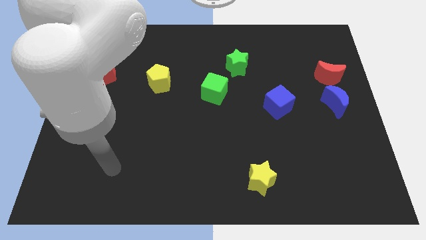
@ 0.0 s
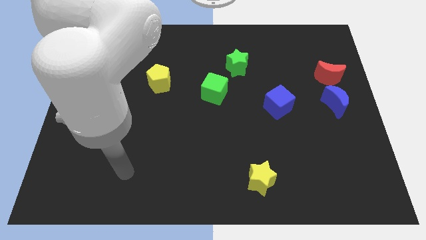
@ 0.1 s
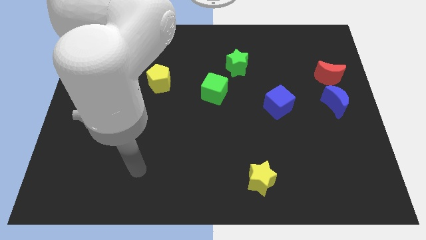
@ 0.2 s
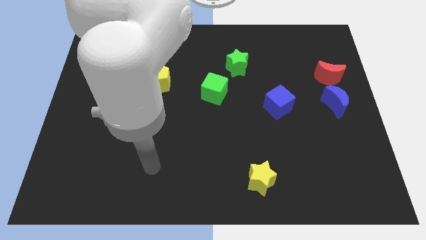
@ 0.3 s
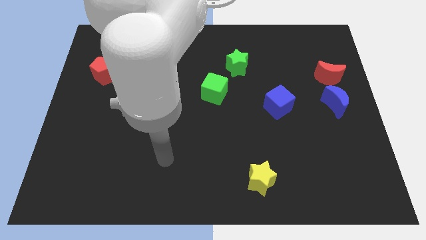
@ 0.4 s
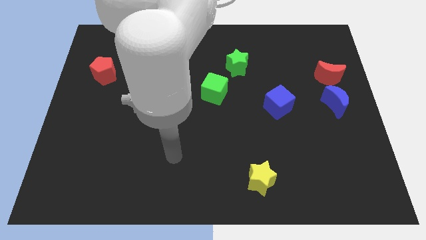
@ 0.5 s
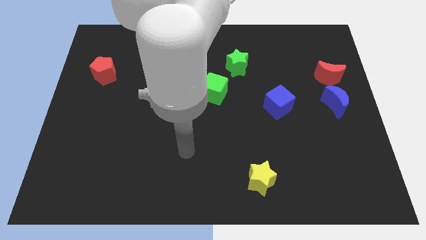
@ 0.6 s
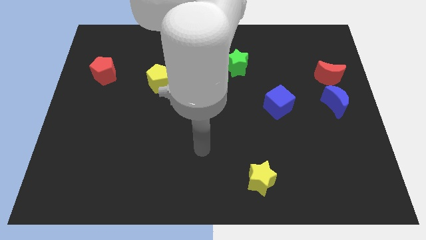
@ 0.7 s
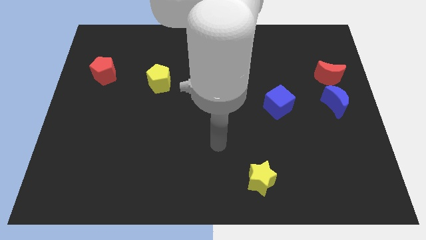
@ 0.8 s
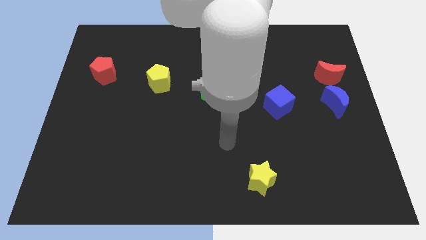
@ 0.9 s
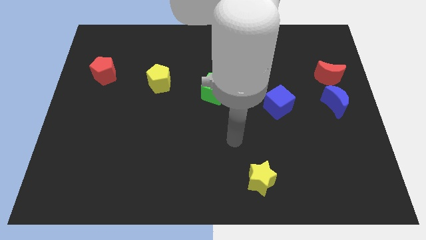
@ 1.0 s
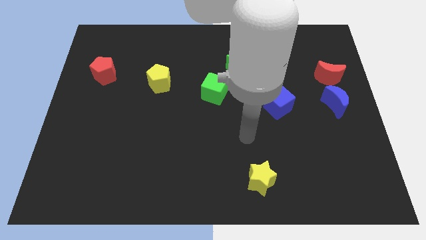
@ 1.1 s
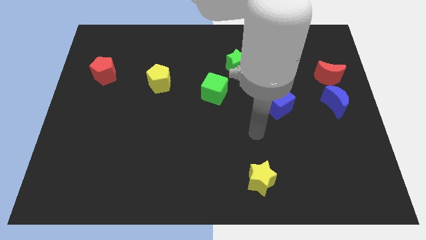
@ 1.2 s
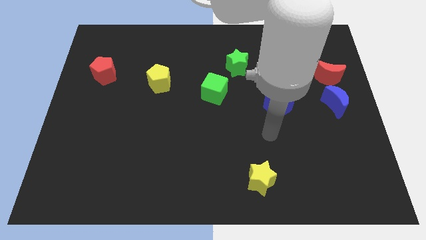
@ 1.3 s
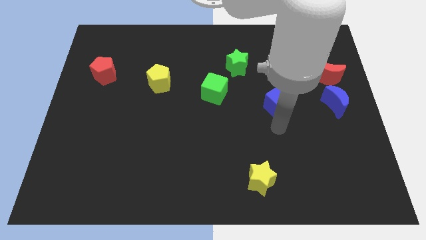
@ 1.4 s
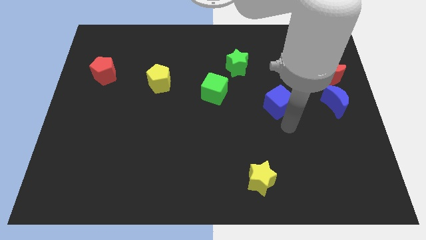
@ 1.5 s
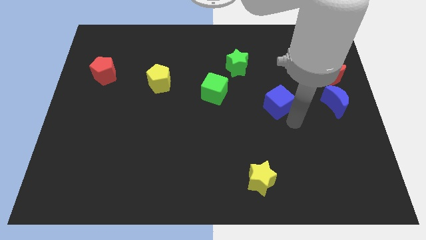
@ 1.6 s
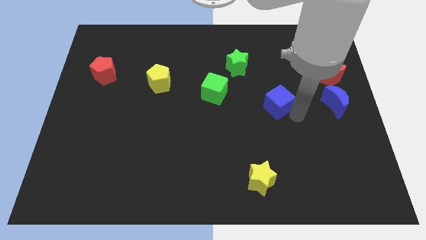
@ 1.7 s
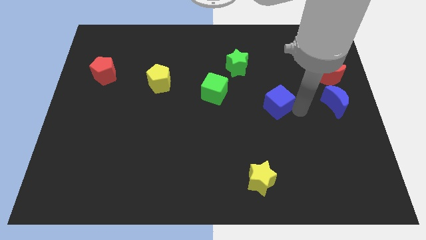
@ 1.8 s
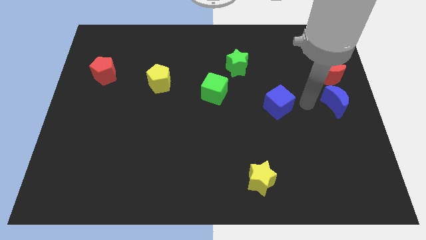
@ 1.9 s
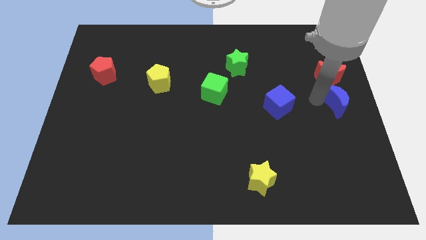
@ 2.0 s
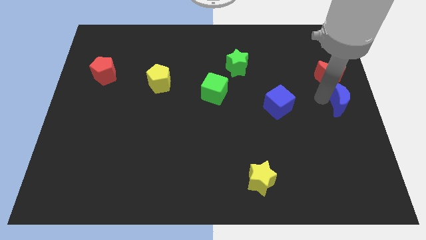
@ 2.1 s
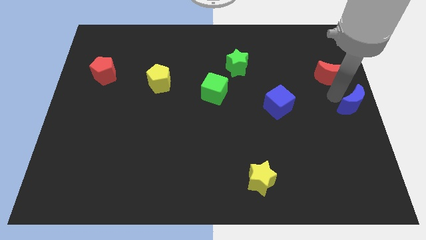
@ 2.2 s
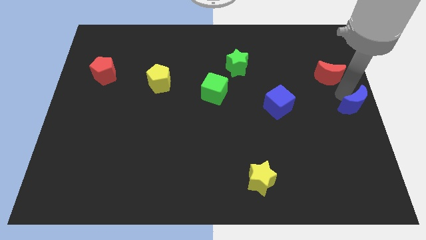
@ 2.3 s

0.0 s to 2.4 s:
move the red moon away from the blue moon

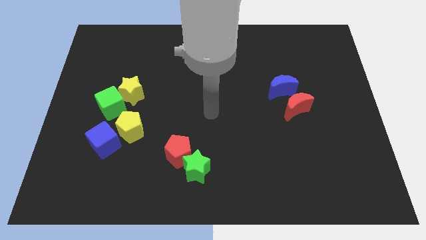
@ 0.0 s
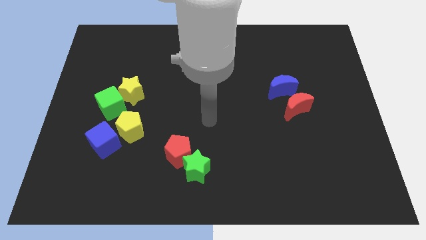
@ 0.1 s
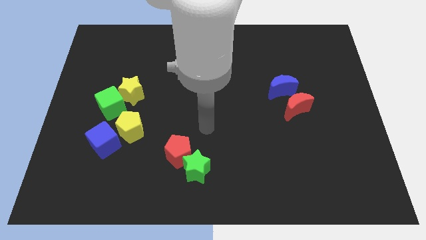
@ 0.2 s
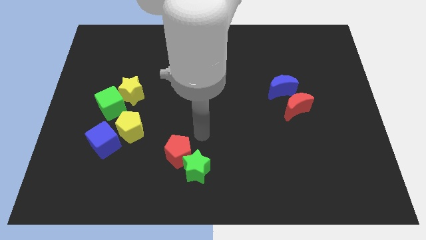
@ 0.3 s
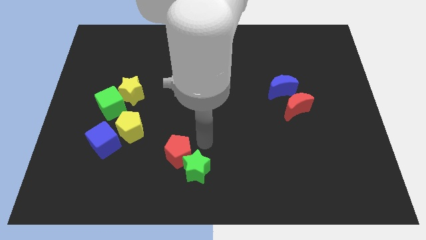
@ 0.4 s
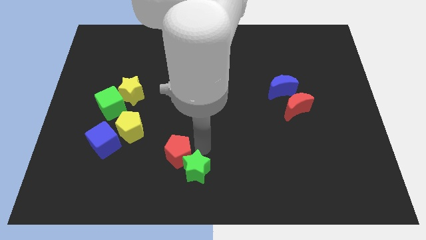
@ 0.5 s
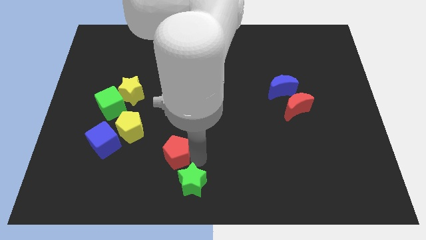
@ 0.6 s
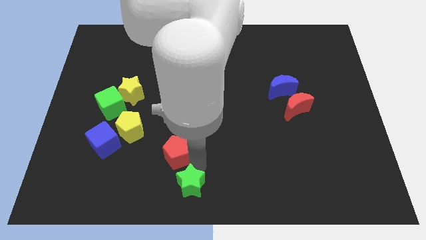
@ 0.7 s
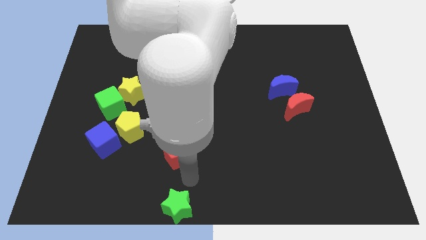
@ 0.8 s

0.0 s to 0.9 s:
move the red pentagon away from the green star

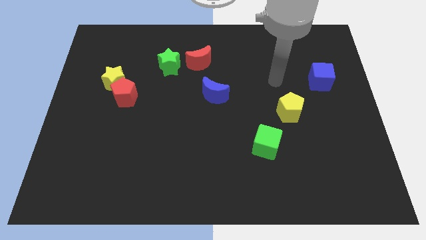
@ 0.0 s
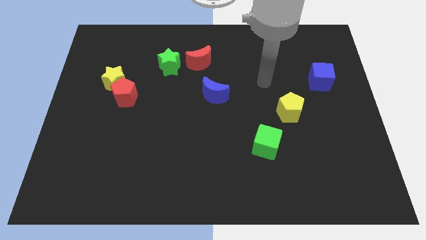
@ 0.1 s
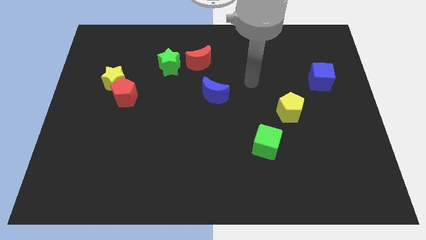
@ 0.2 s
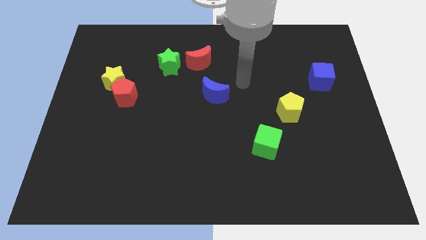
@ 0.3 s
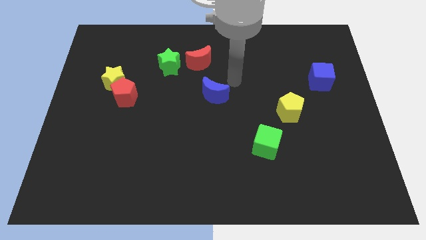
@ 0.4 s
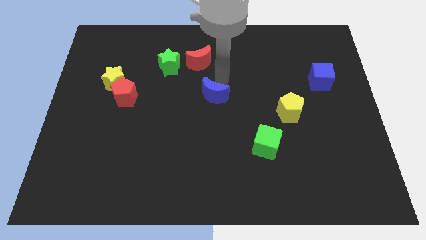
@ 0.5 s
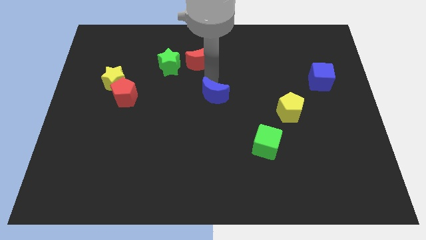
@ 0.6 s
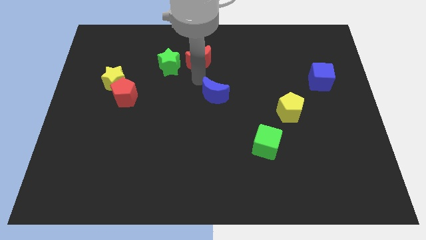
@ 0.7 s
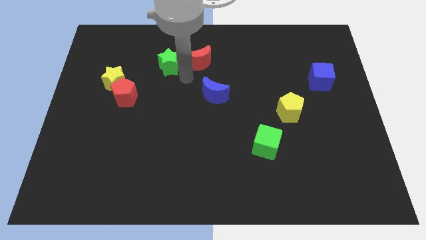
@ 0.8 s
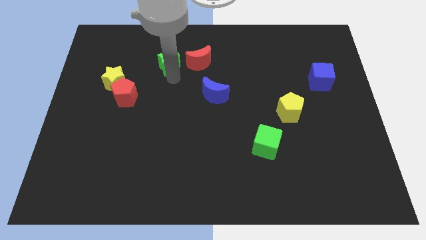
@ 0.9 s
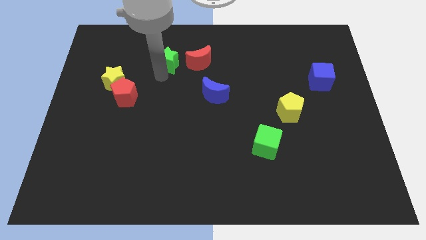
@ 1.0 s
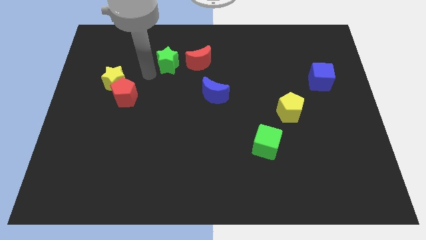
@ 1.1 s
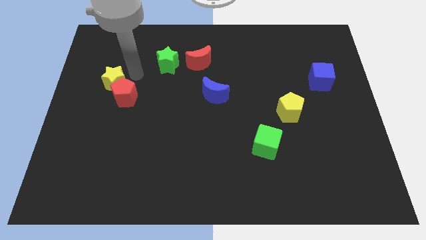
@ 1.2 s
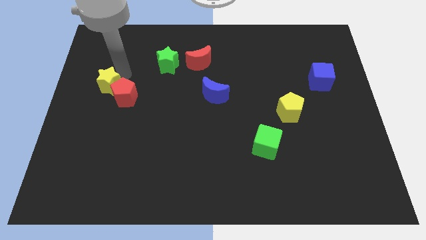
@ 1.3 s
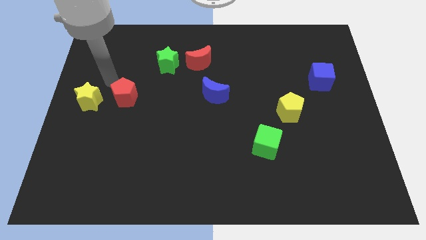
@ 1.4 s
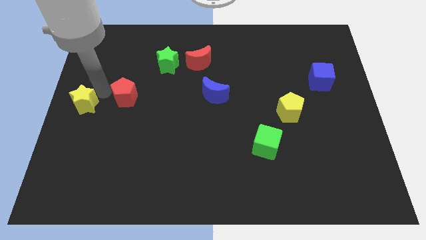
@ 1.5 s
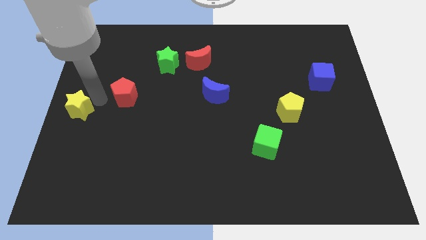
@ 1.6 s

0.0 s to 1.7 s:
pull the red pentagon apart from the yellow star

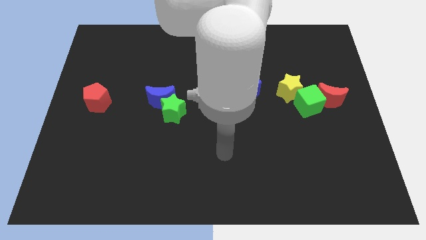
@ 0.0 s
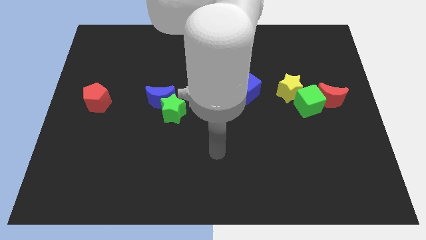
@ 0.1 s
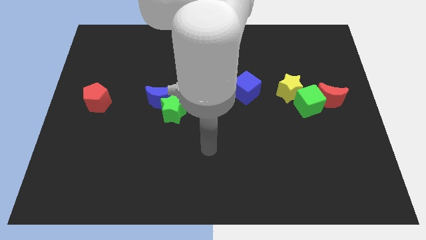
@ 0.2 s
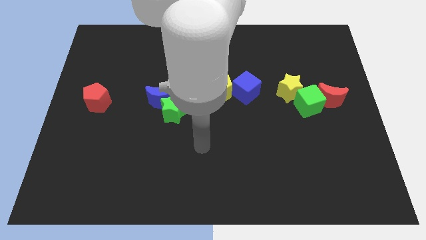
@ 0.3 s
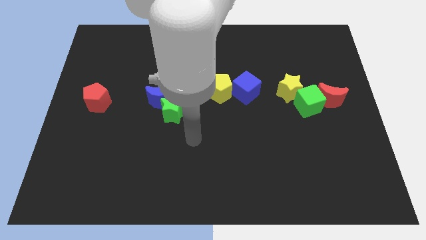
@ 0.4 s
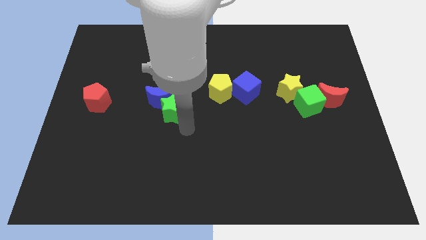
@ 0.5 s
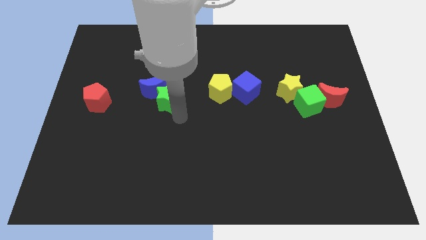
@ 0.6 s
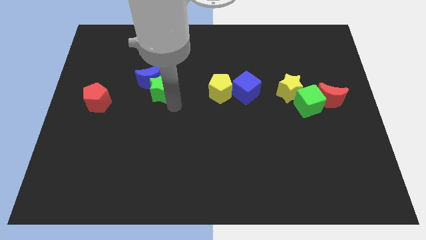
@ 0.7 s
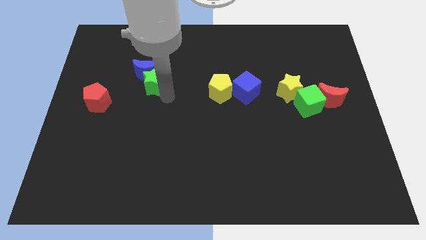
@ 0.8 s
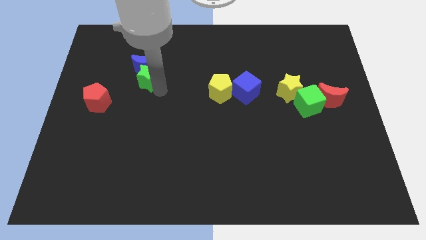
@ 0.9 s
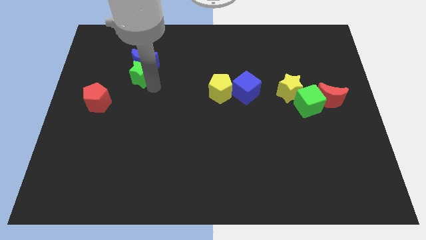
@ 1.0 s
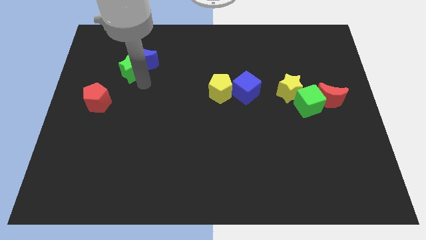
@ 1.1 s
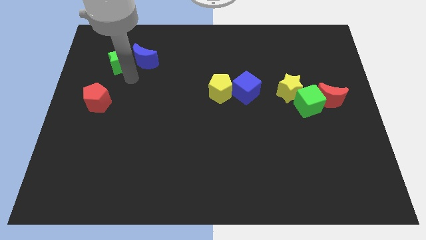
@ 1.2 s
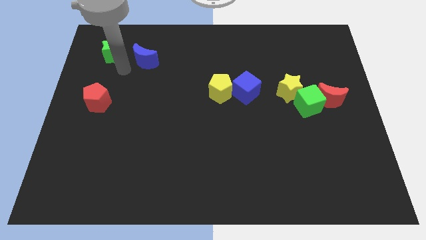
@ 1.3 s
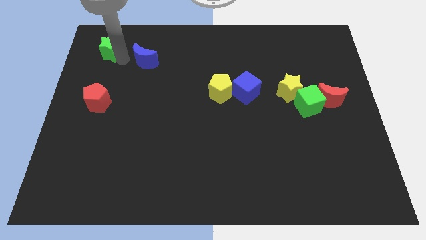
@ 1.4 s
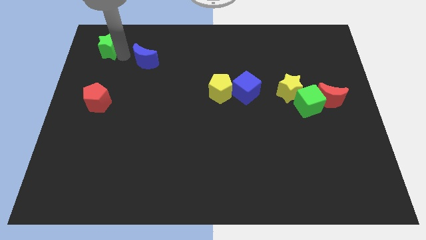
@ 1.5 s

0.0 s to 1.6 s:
separate the blue moon from the green star

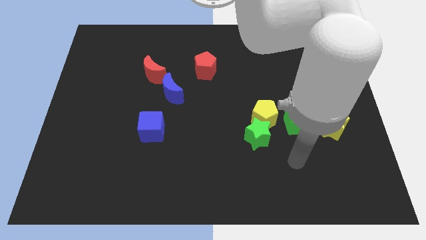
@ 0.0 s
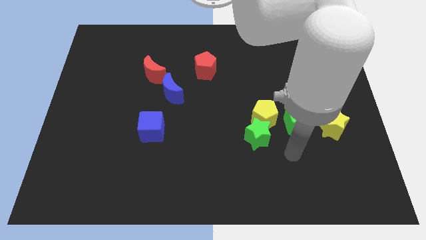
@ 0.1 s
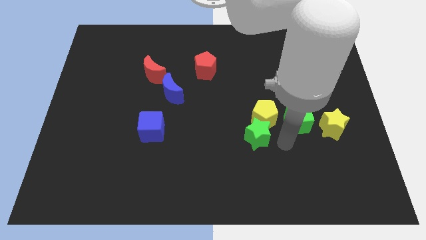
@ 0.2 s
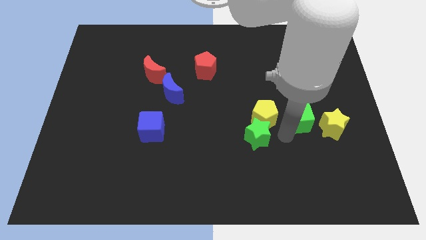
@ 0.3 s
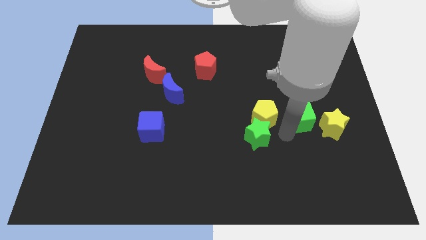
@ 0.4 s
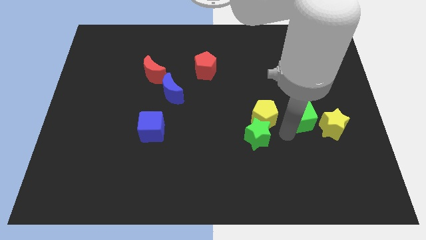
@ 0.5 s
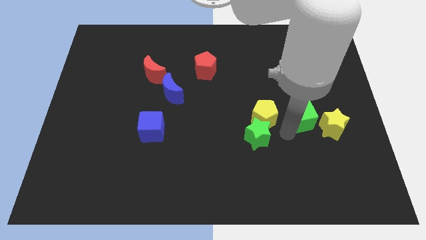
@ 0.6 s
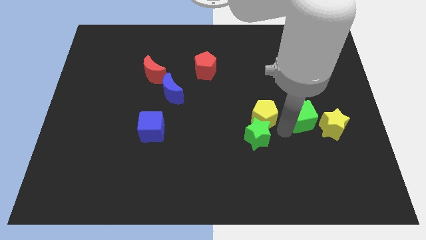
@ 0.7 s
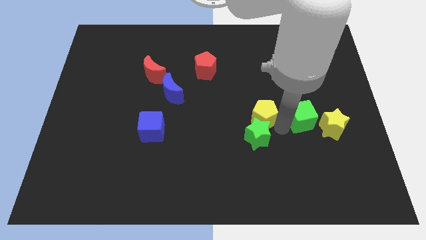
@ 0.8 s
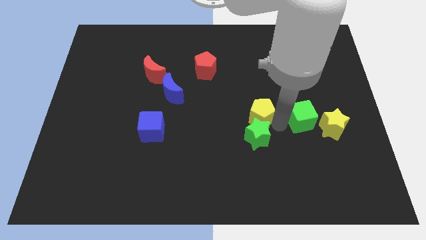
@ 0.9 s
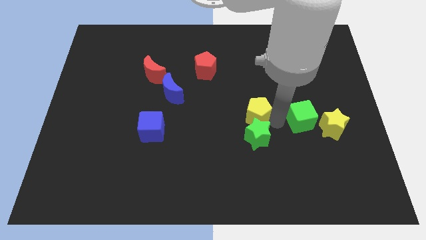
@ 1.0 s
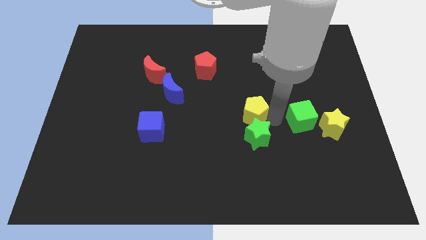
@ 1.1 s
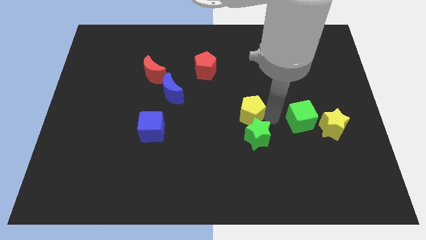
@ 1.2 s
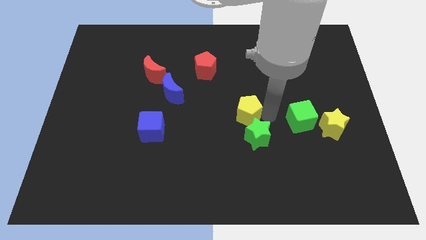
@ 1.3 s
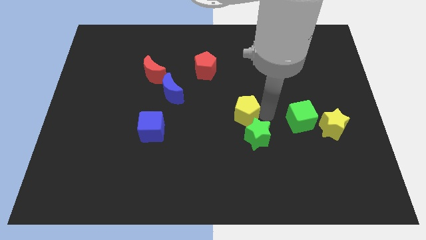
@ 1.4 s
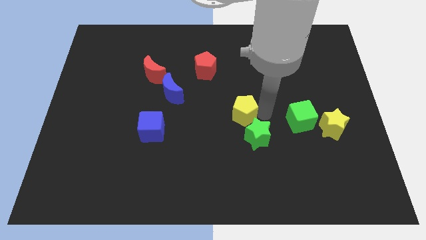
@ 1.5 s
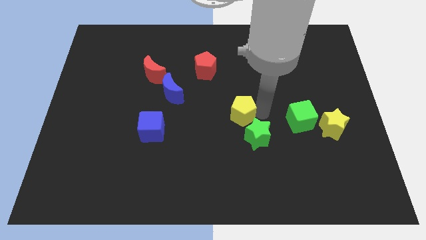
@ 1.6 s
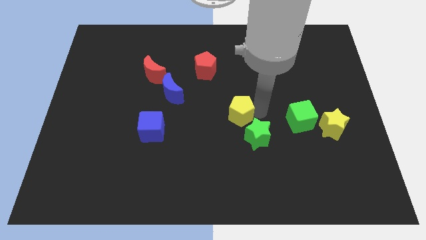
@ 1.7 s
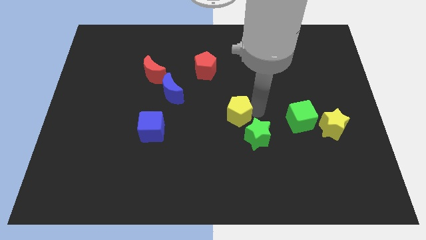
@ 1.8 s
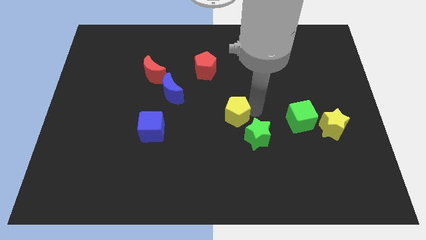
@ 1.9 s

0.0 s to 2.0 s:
pull the yellow pentagon apart from the green star and green cube

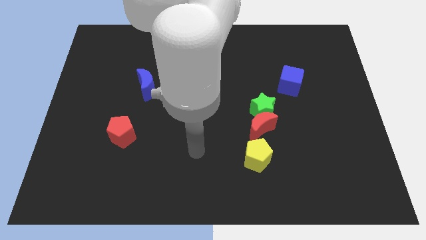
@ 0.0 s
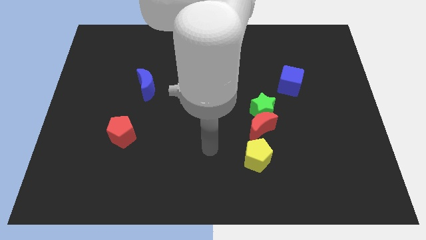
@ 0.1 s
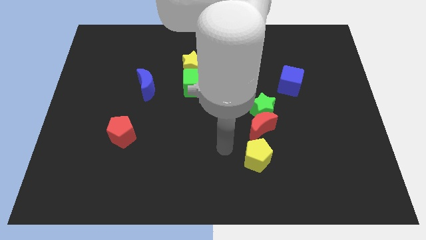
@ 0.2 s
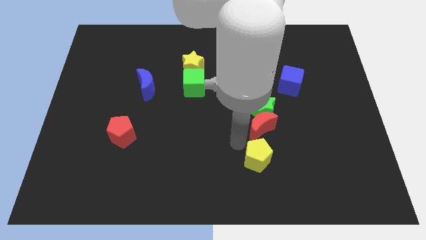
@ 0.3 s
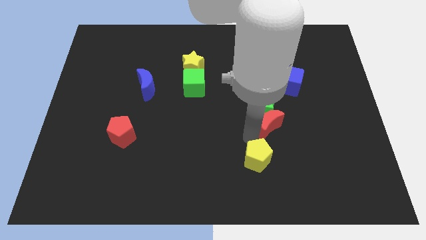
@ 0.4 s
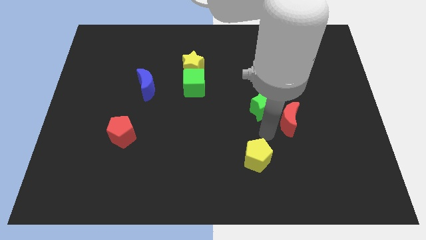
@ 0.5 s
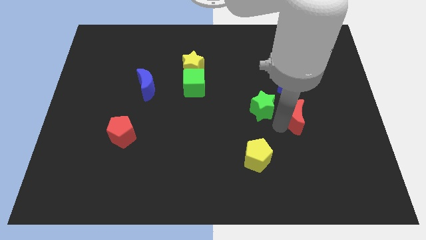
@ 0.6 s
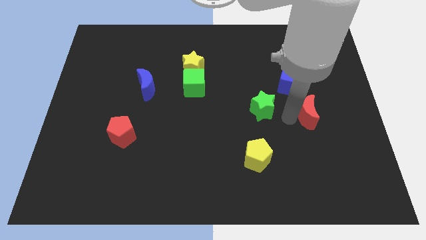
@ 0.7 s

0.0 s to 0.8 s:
pull the green star apart from the red moon
